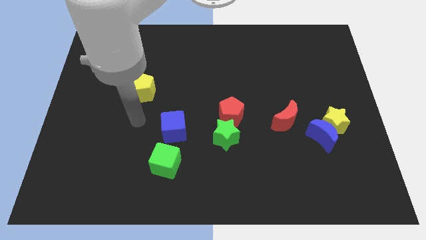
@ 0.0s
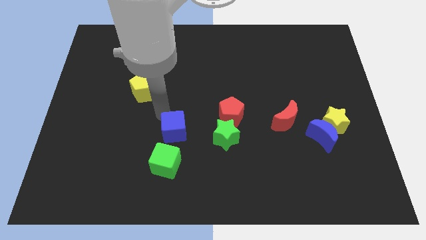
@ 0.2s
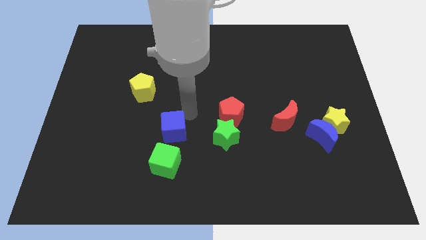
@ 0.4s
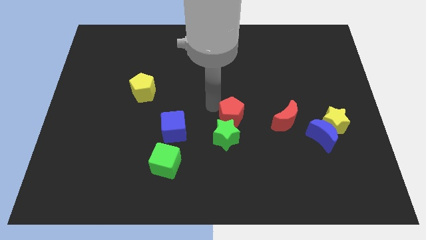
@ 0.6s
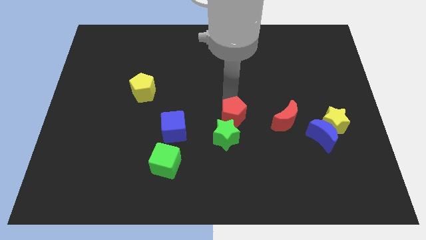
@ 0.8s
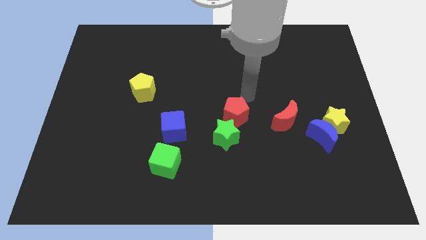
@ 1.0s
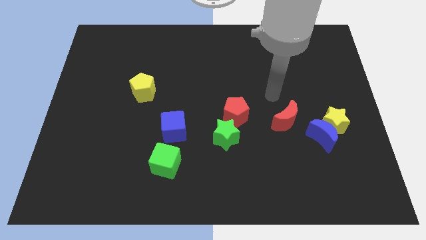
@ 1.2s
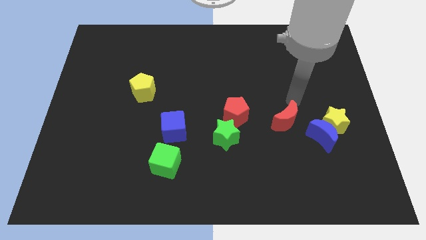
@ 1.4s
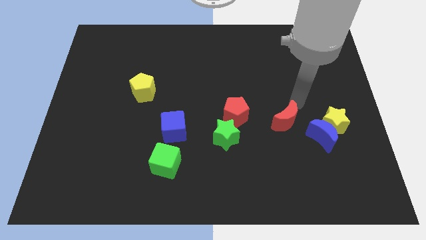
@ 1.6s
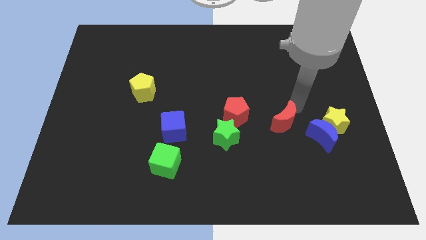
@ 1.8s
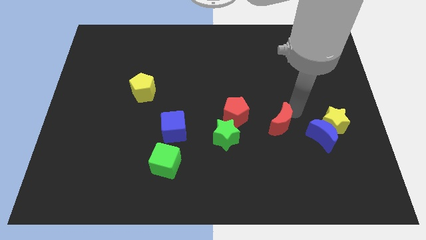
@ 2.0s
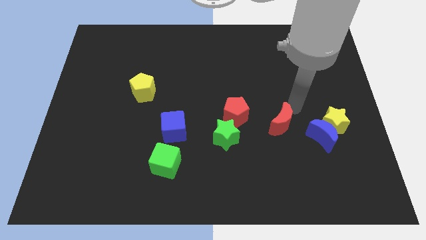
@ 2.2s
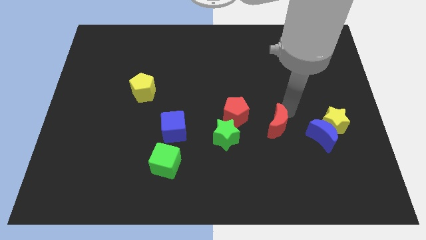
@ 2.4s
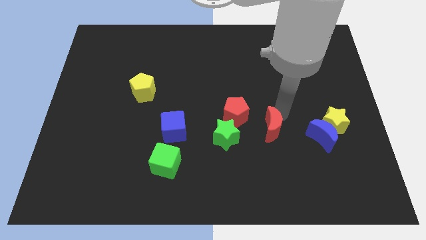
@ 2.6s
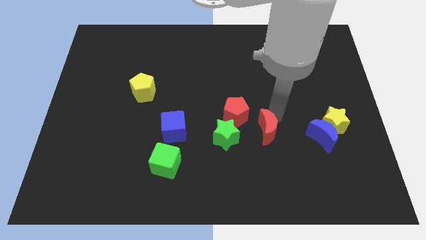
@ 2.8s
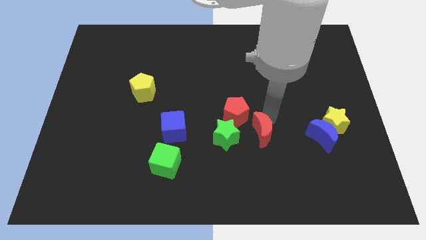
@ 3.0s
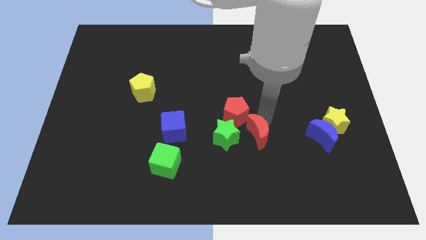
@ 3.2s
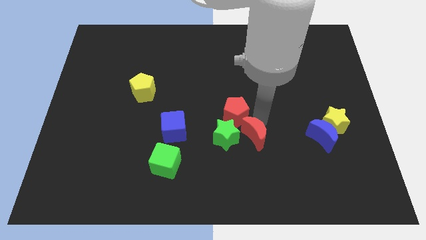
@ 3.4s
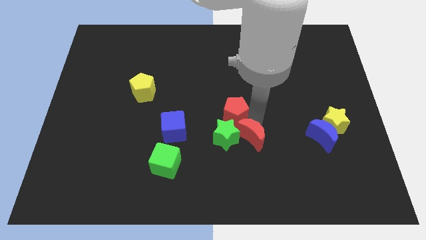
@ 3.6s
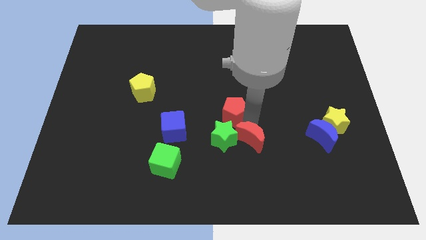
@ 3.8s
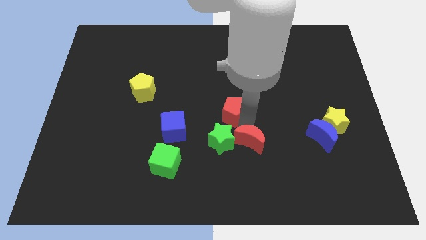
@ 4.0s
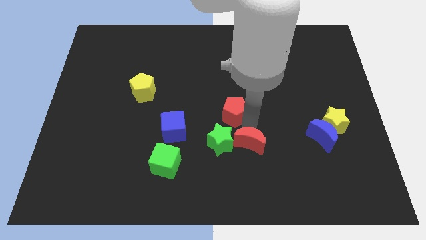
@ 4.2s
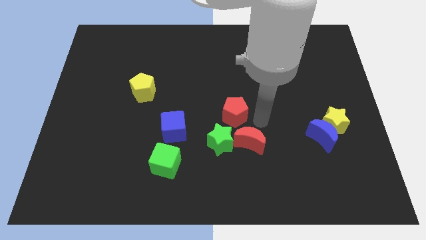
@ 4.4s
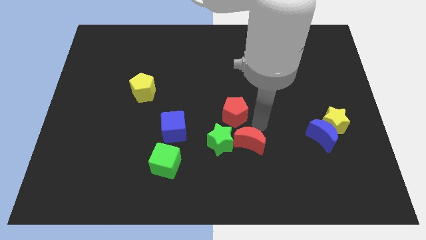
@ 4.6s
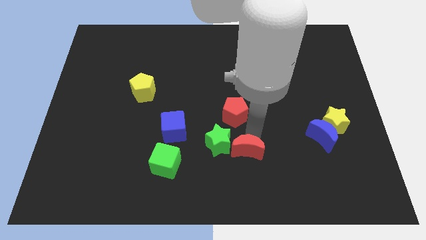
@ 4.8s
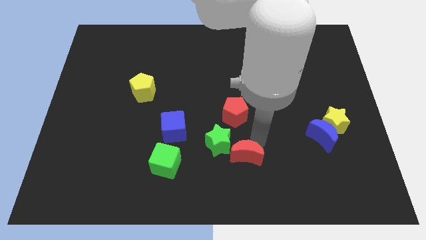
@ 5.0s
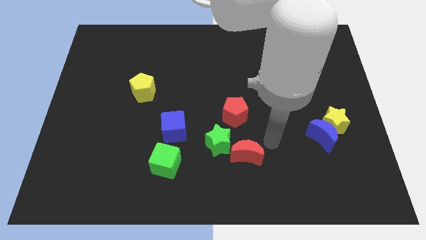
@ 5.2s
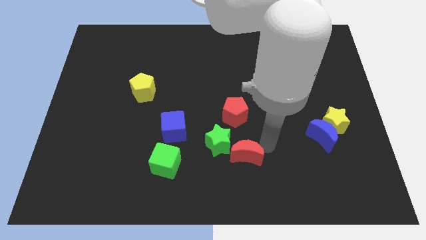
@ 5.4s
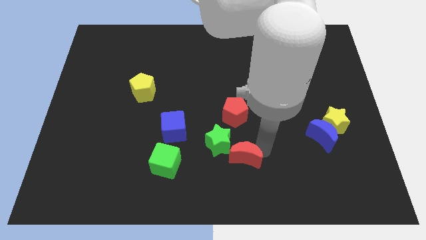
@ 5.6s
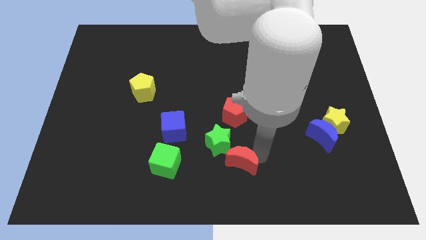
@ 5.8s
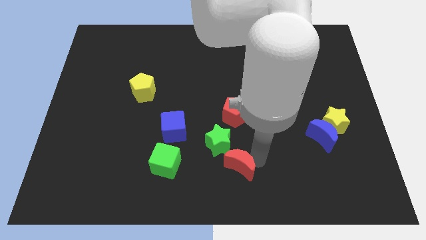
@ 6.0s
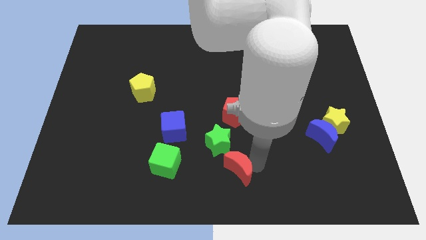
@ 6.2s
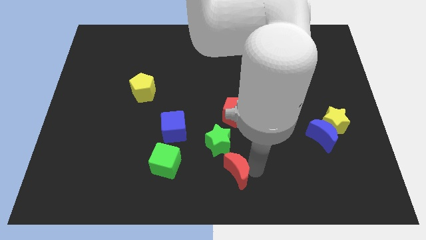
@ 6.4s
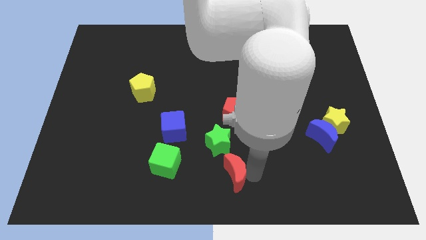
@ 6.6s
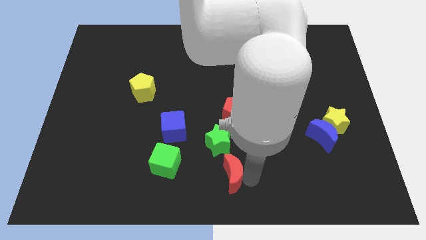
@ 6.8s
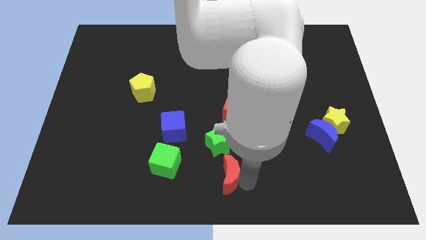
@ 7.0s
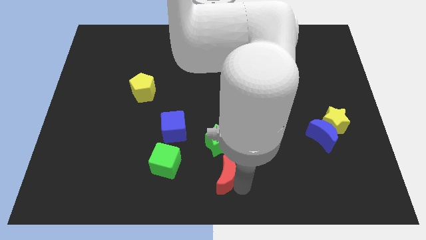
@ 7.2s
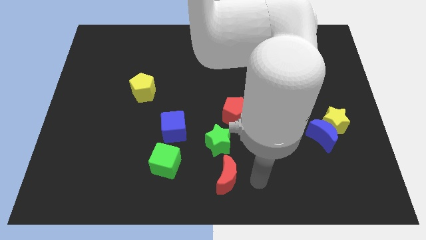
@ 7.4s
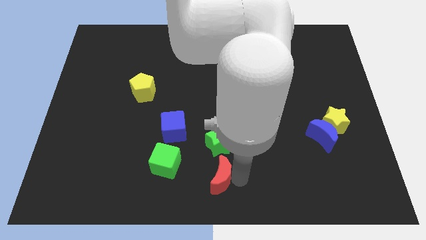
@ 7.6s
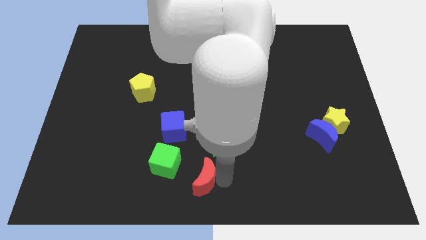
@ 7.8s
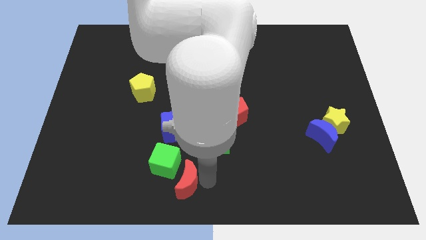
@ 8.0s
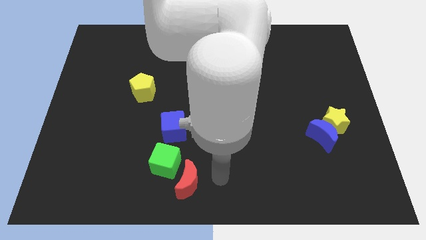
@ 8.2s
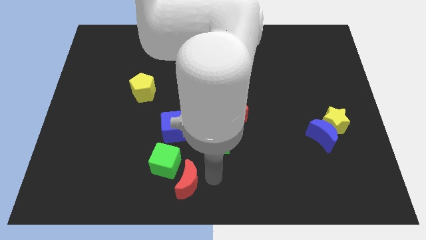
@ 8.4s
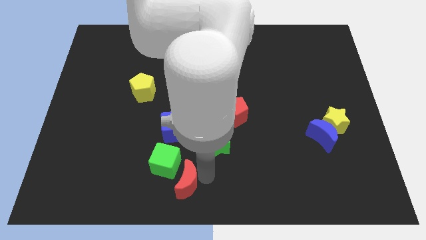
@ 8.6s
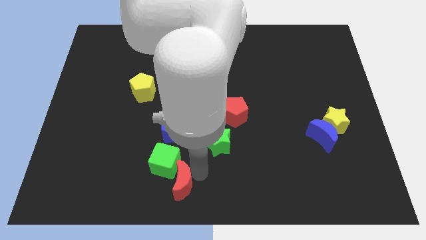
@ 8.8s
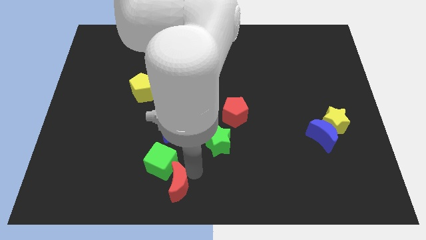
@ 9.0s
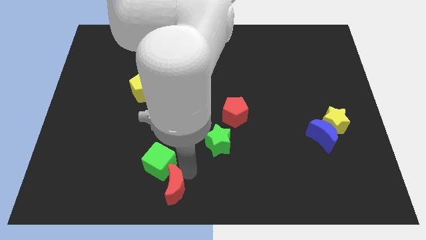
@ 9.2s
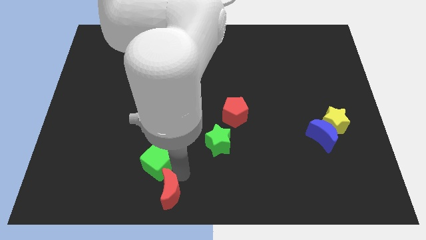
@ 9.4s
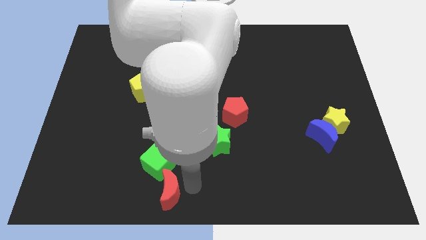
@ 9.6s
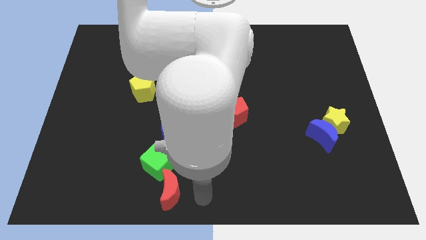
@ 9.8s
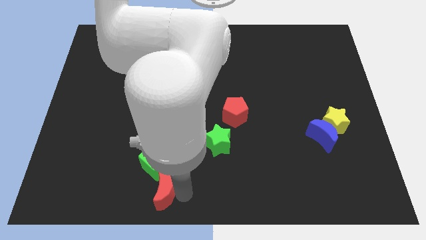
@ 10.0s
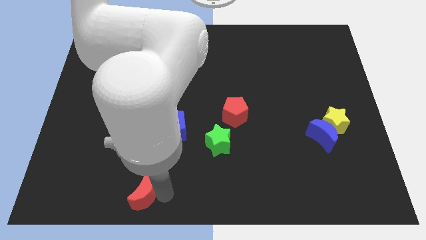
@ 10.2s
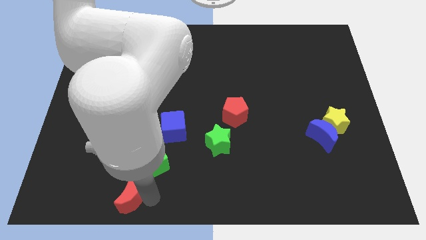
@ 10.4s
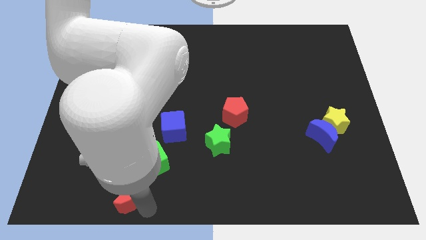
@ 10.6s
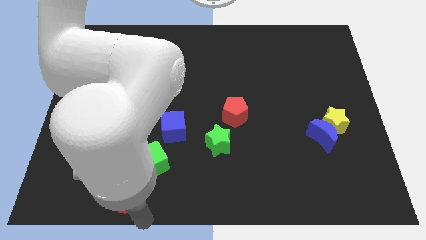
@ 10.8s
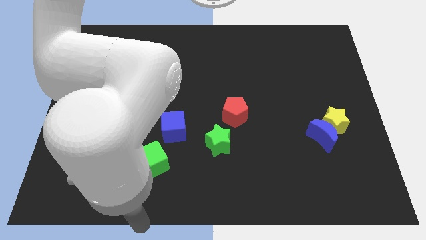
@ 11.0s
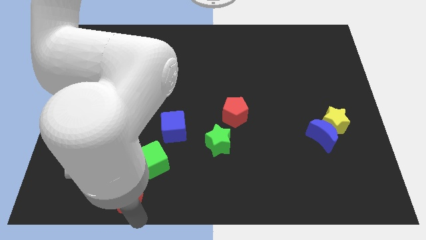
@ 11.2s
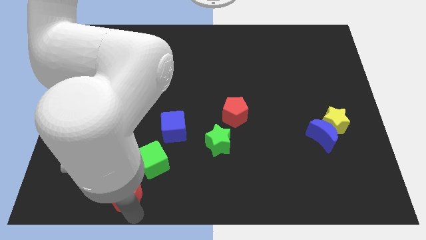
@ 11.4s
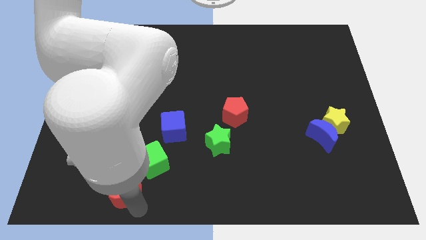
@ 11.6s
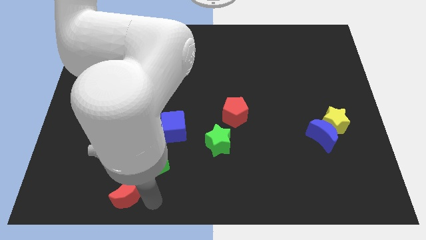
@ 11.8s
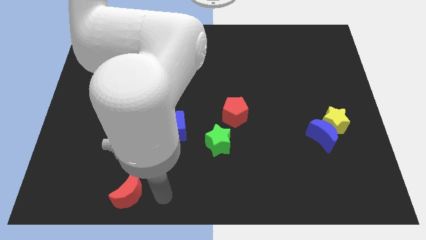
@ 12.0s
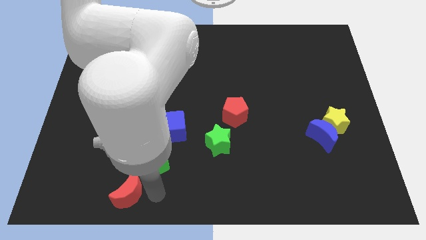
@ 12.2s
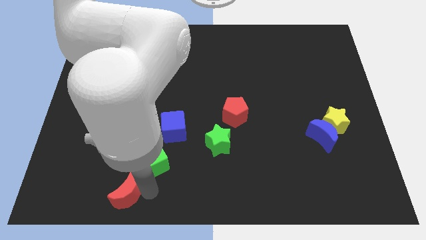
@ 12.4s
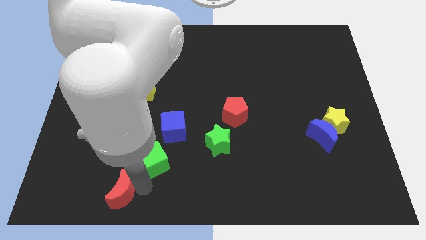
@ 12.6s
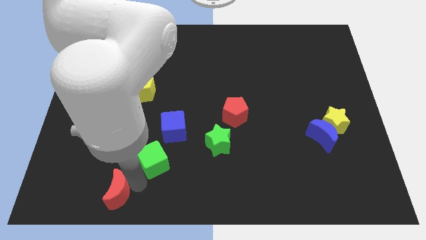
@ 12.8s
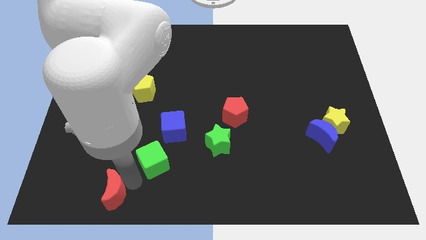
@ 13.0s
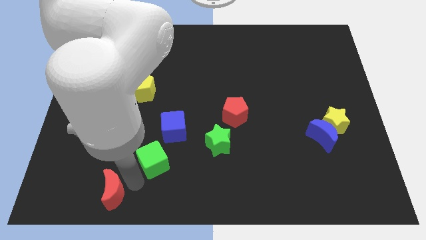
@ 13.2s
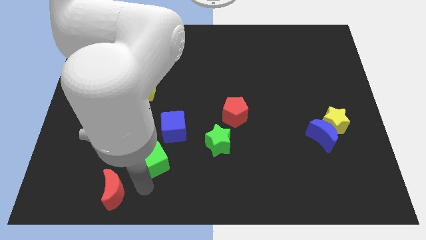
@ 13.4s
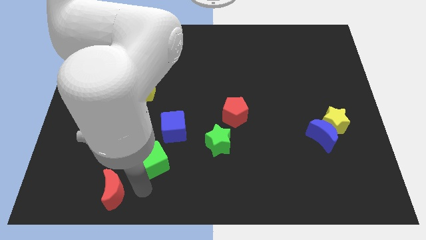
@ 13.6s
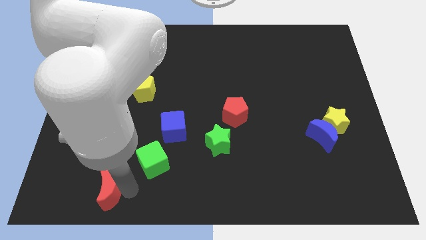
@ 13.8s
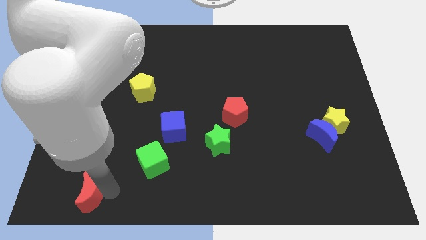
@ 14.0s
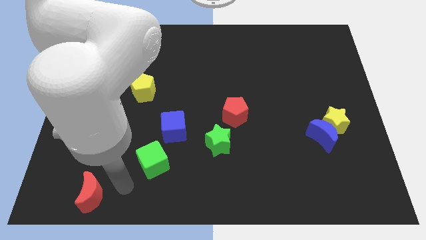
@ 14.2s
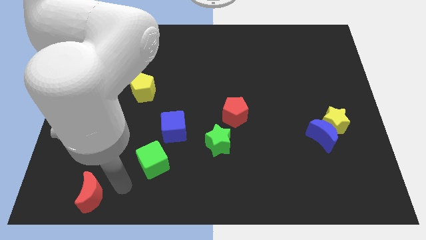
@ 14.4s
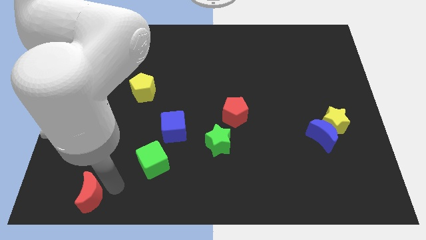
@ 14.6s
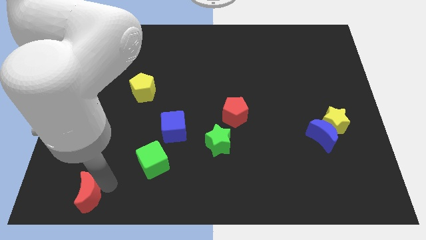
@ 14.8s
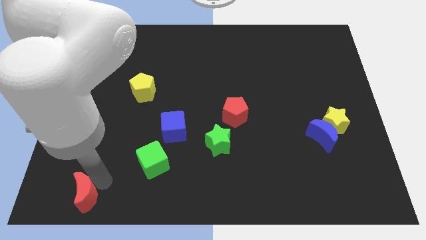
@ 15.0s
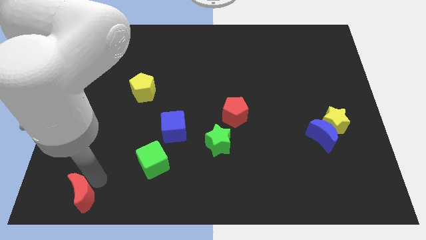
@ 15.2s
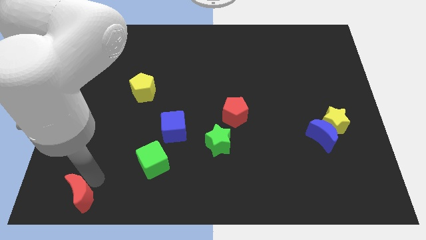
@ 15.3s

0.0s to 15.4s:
move the red moon to the bottom left corner
